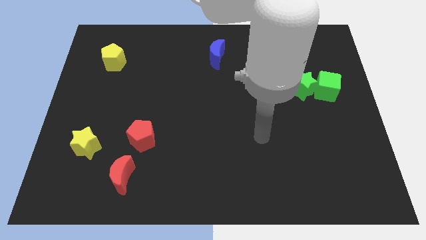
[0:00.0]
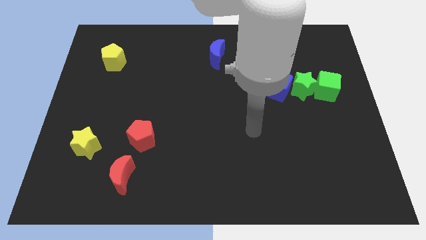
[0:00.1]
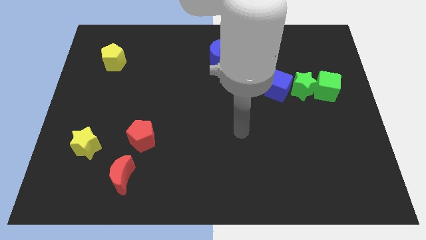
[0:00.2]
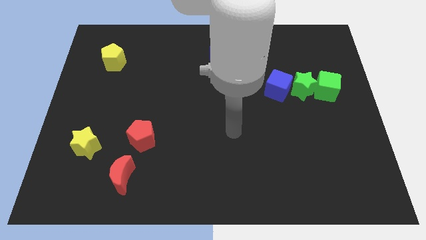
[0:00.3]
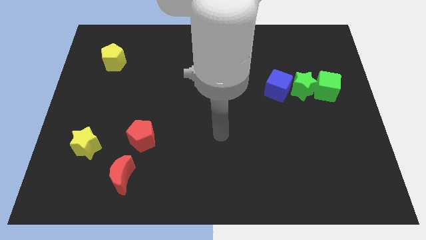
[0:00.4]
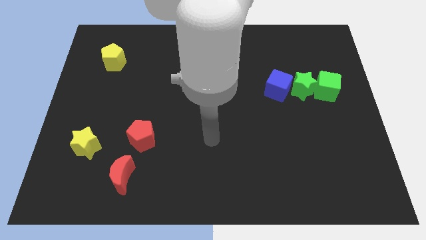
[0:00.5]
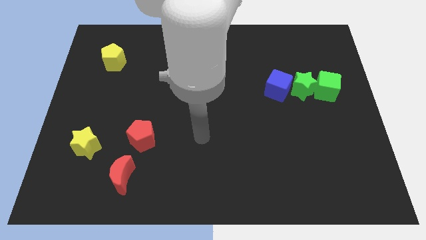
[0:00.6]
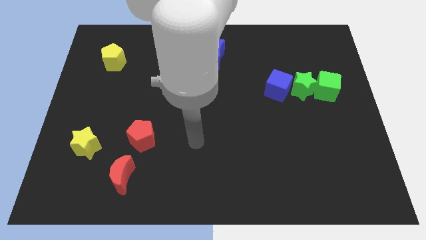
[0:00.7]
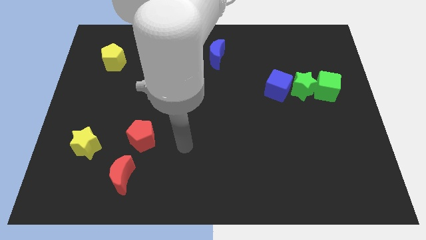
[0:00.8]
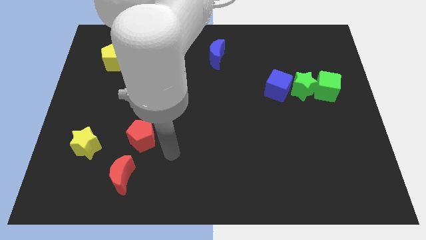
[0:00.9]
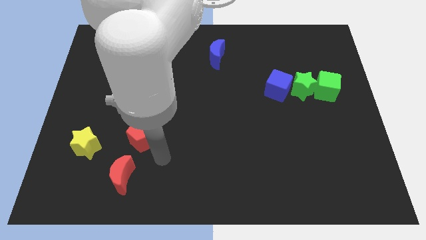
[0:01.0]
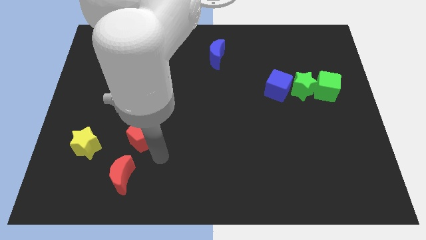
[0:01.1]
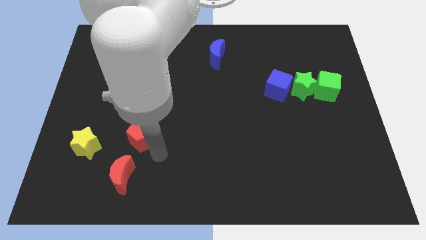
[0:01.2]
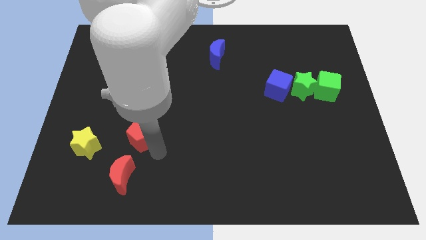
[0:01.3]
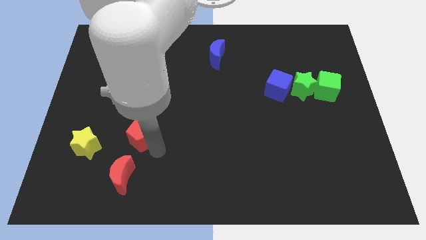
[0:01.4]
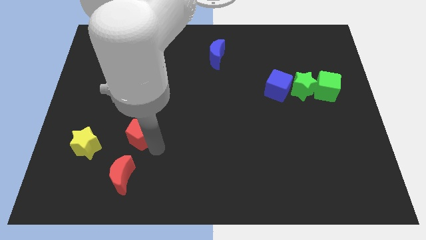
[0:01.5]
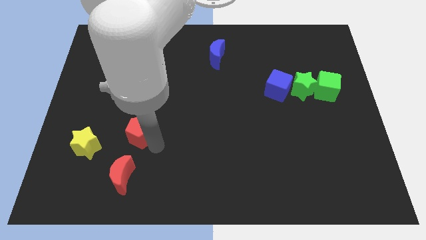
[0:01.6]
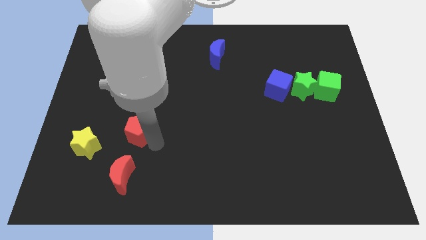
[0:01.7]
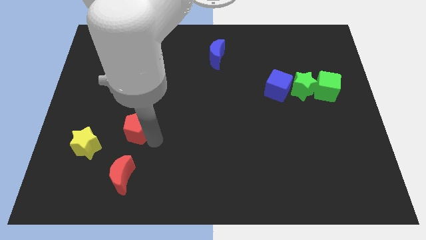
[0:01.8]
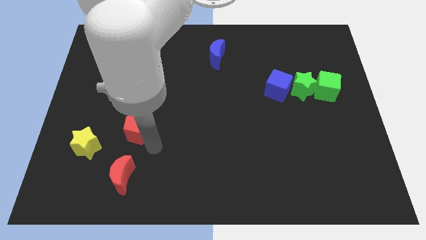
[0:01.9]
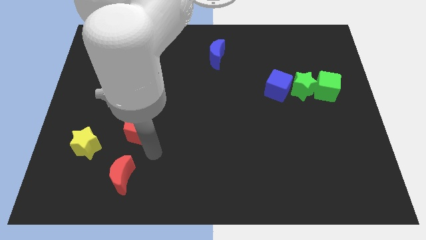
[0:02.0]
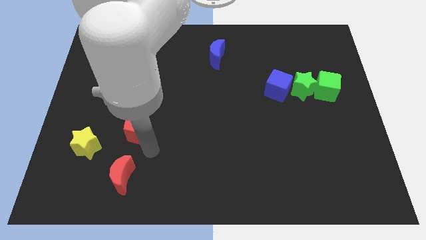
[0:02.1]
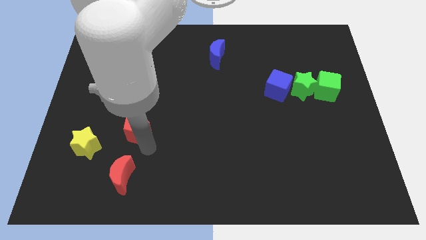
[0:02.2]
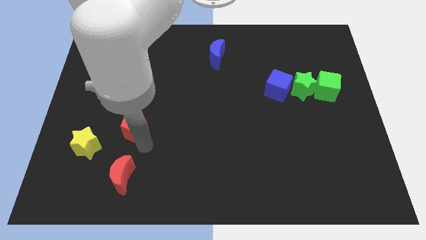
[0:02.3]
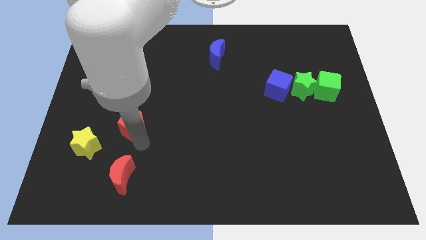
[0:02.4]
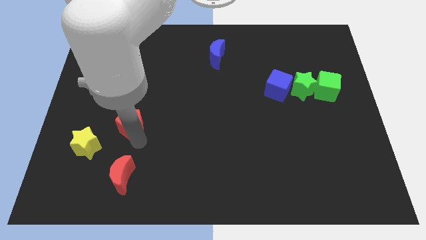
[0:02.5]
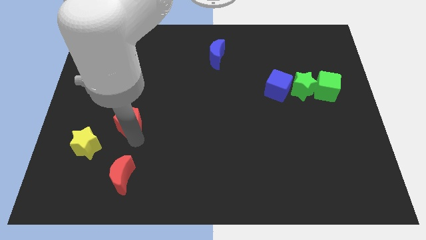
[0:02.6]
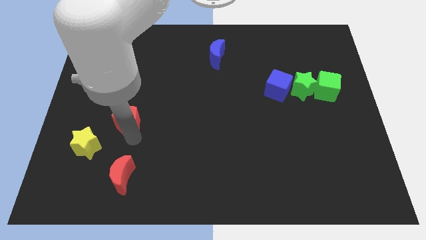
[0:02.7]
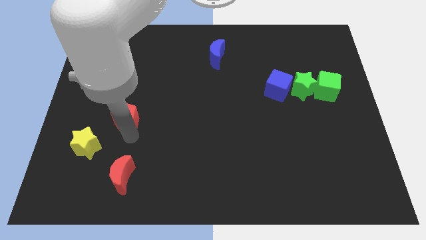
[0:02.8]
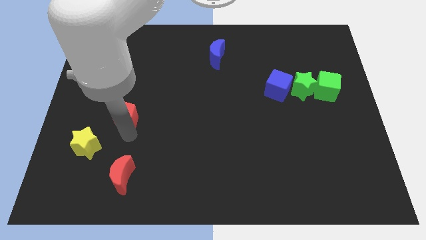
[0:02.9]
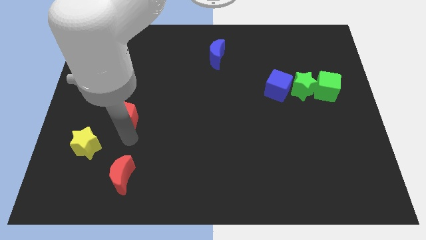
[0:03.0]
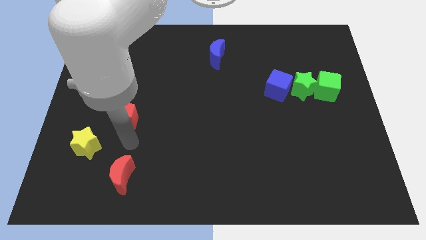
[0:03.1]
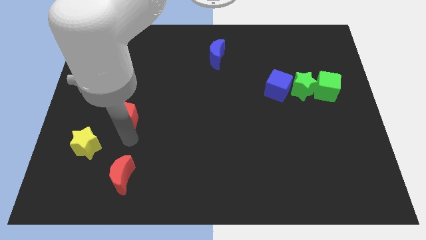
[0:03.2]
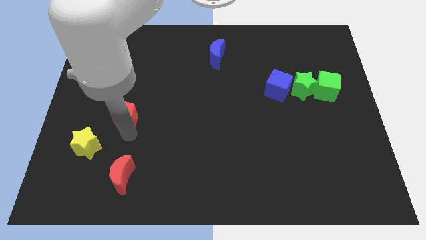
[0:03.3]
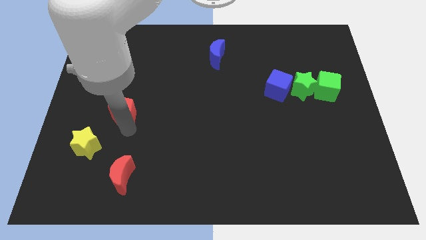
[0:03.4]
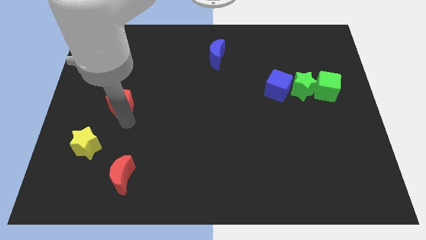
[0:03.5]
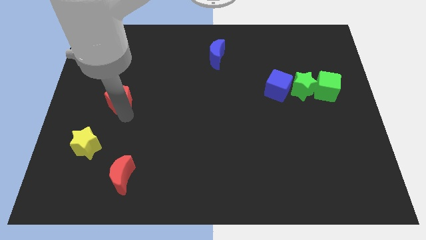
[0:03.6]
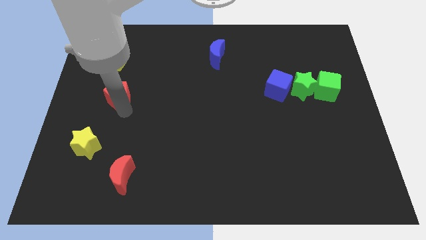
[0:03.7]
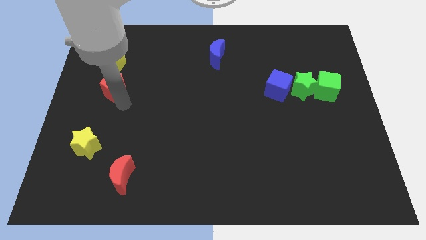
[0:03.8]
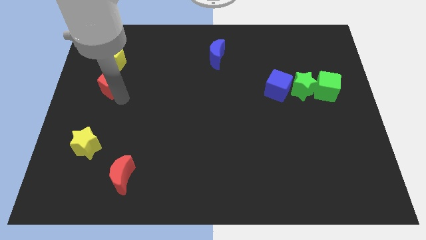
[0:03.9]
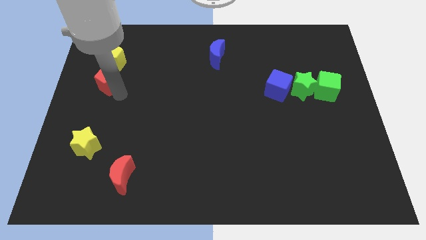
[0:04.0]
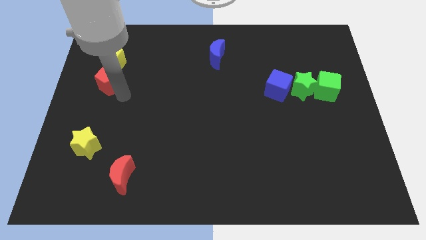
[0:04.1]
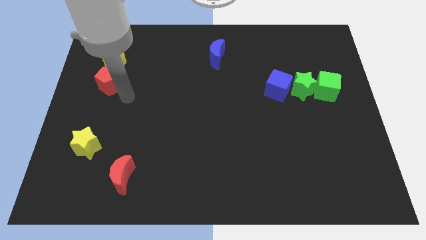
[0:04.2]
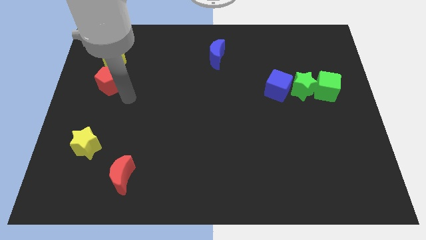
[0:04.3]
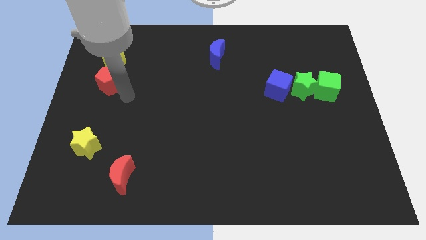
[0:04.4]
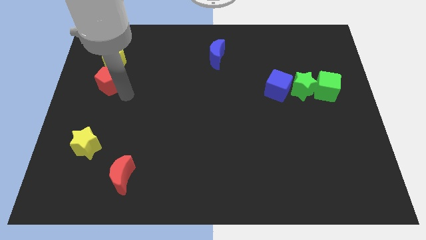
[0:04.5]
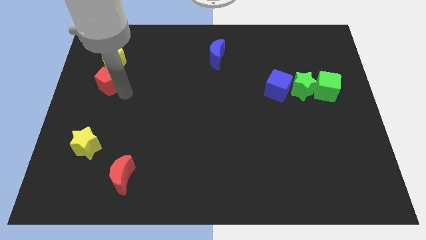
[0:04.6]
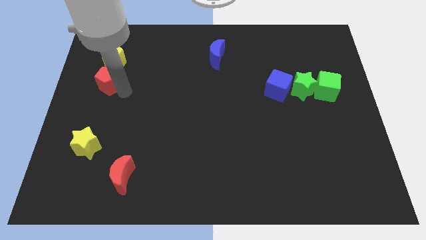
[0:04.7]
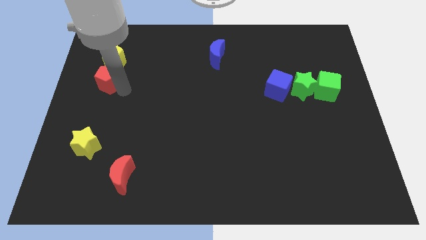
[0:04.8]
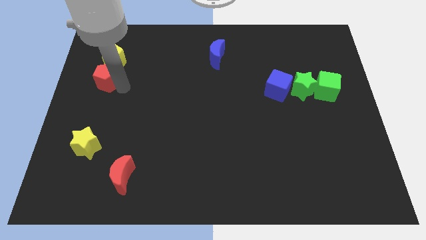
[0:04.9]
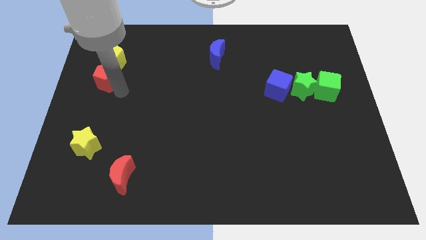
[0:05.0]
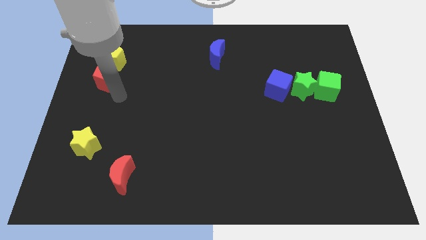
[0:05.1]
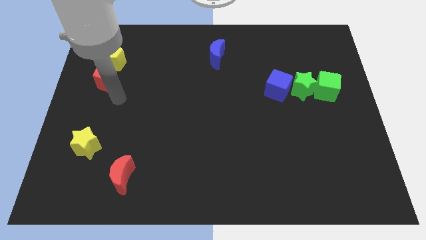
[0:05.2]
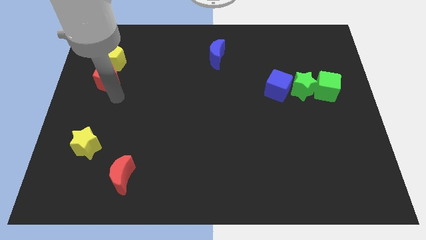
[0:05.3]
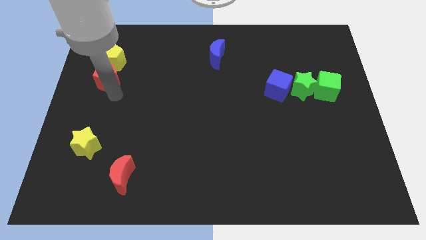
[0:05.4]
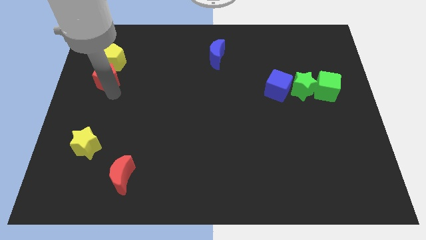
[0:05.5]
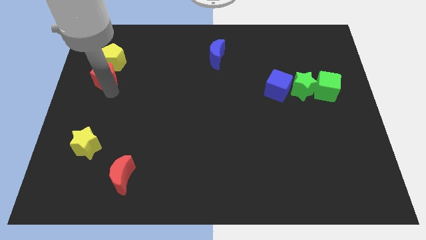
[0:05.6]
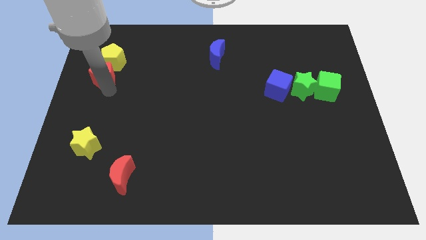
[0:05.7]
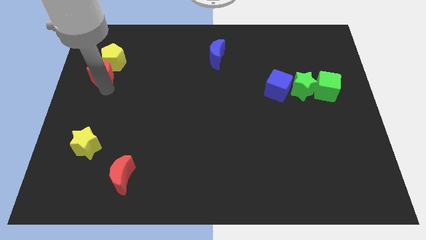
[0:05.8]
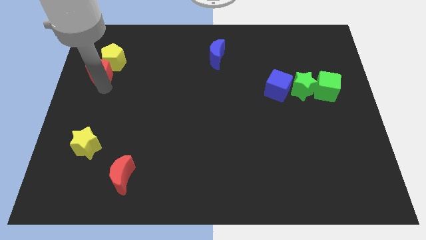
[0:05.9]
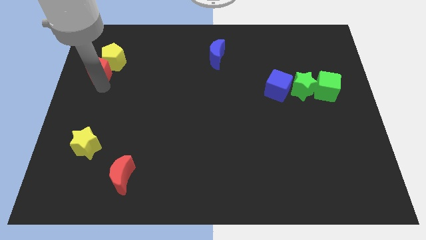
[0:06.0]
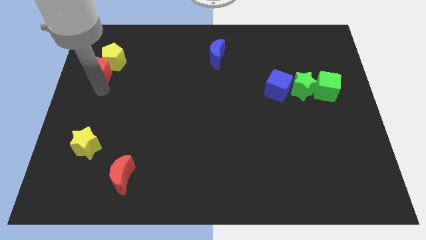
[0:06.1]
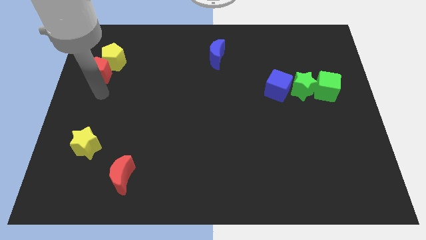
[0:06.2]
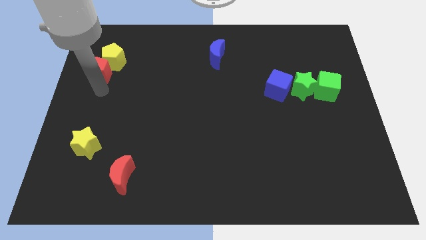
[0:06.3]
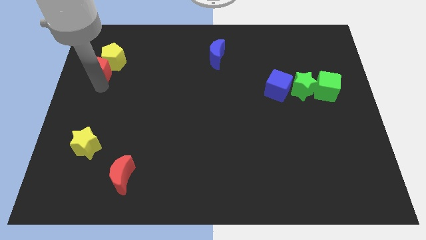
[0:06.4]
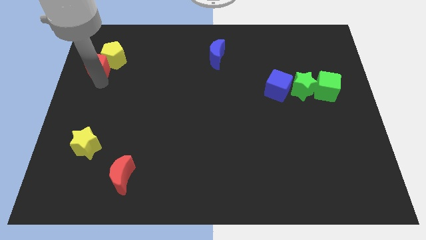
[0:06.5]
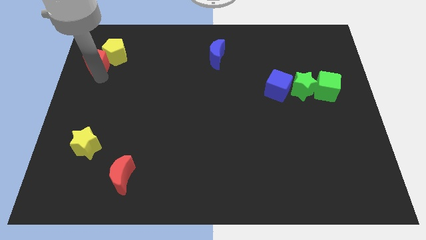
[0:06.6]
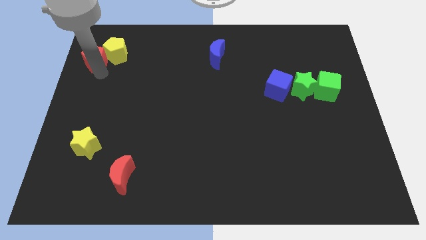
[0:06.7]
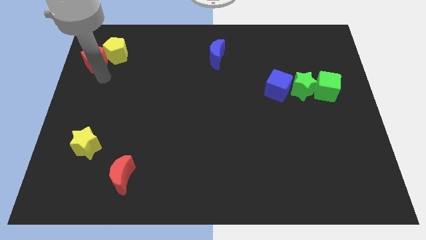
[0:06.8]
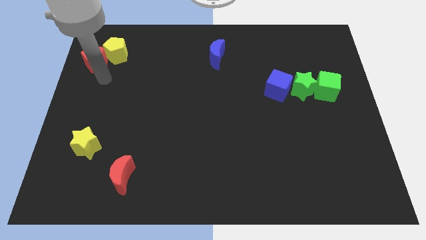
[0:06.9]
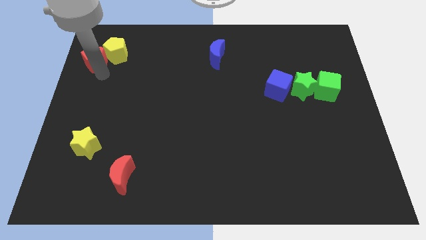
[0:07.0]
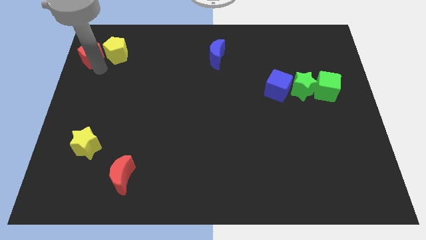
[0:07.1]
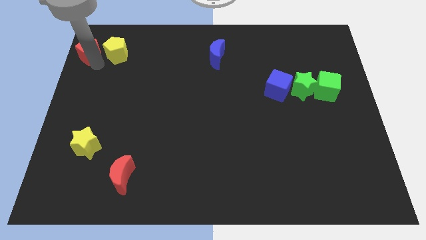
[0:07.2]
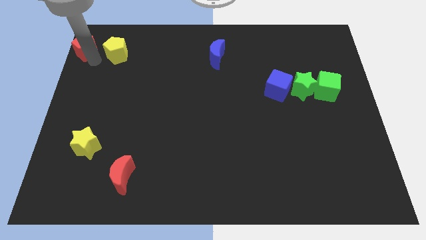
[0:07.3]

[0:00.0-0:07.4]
move the red pentagon to the top left

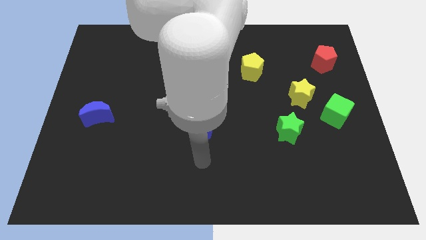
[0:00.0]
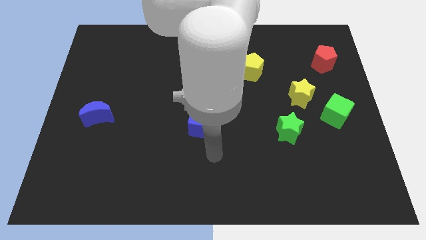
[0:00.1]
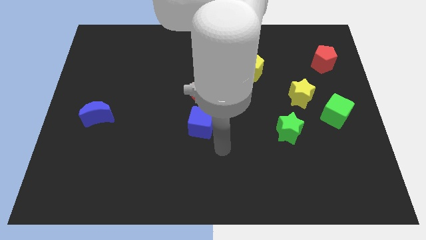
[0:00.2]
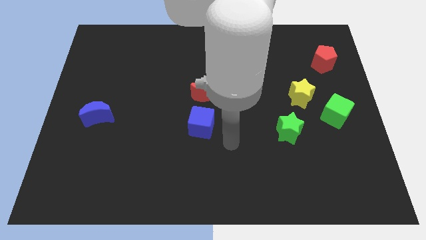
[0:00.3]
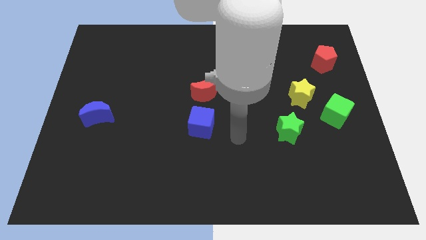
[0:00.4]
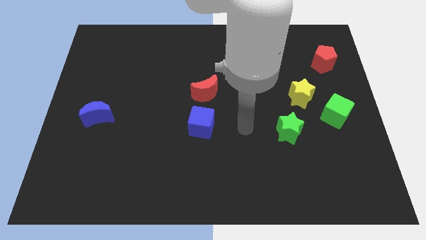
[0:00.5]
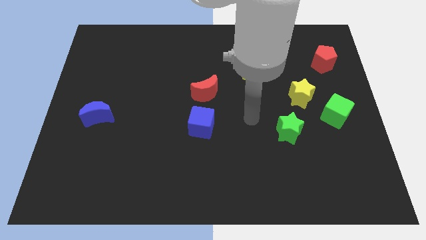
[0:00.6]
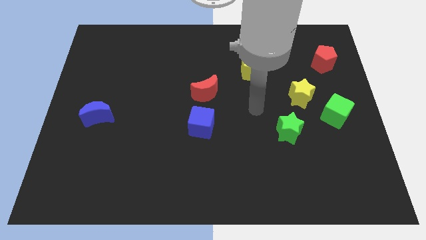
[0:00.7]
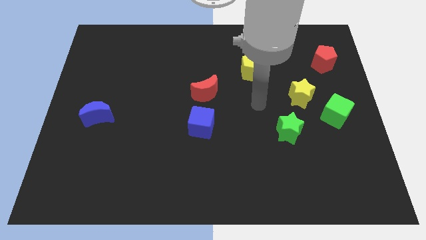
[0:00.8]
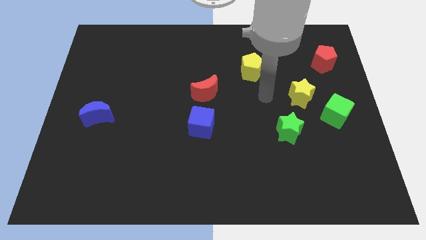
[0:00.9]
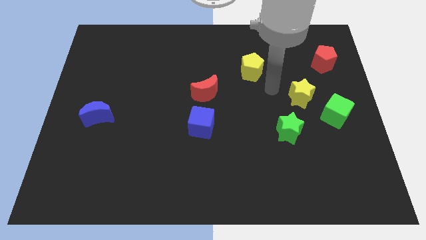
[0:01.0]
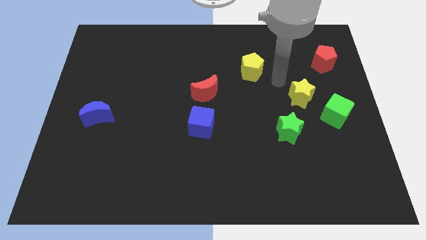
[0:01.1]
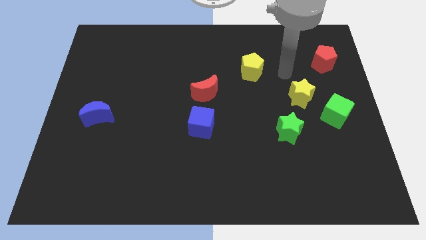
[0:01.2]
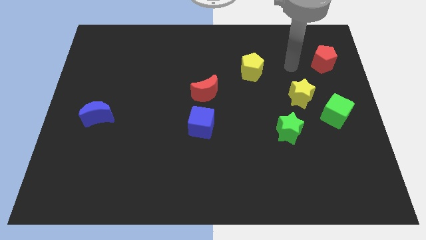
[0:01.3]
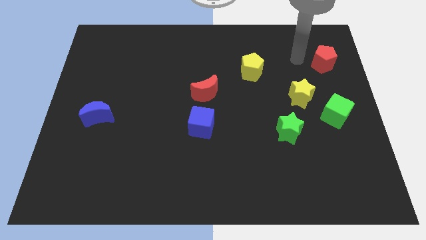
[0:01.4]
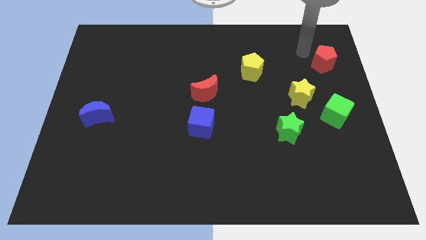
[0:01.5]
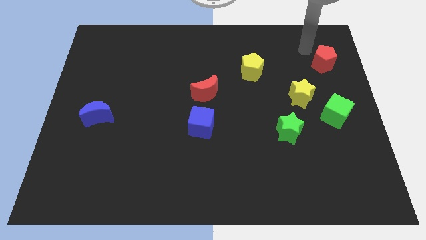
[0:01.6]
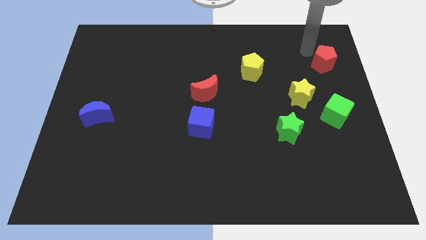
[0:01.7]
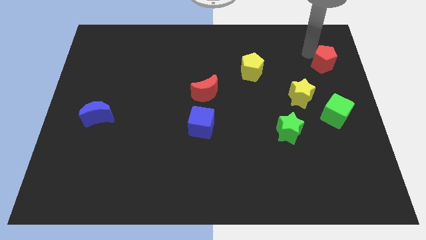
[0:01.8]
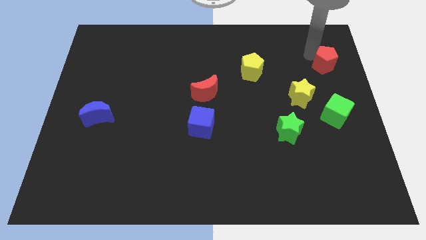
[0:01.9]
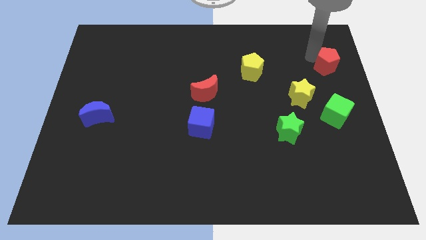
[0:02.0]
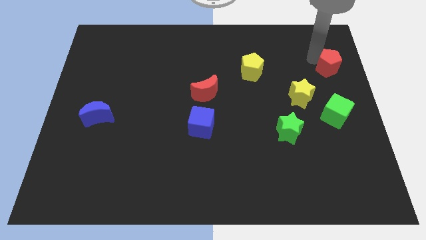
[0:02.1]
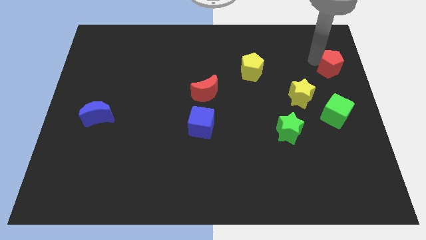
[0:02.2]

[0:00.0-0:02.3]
move the red pentagon to the center right
